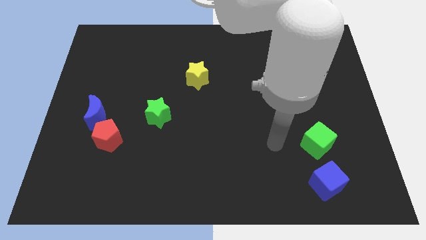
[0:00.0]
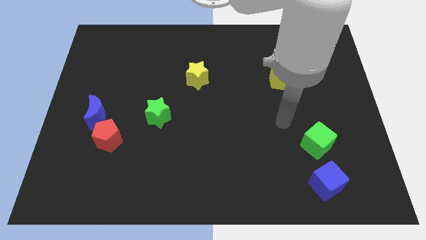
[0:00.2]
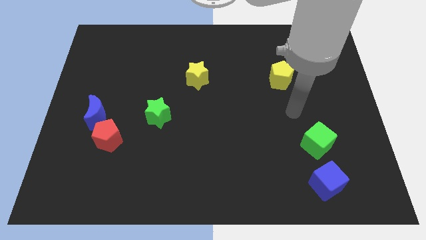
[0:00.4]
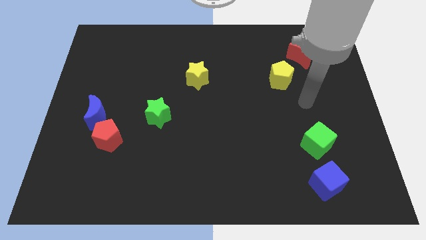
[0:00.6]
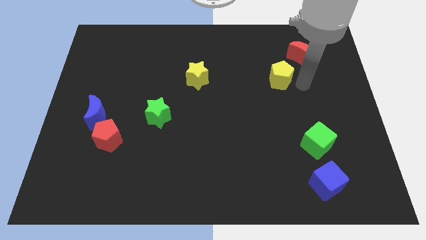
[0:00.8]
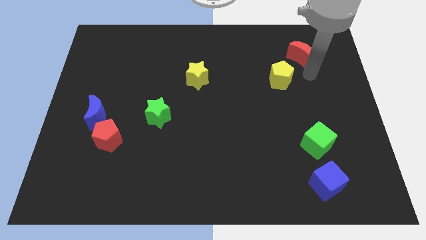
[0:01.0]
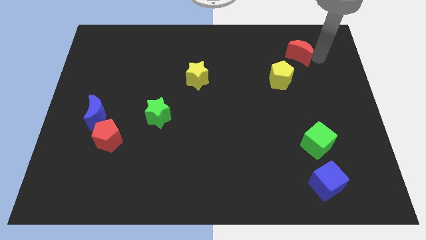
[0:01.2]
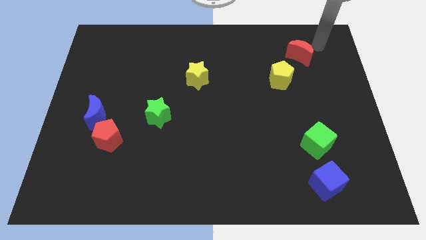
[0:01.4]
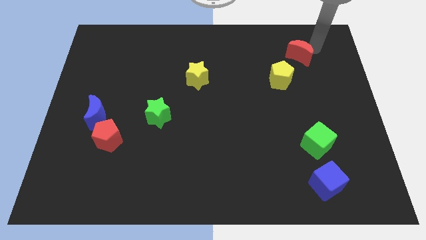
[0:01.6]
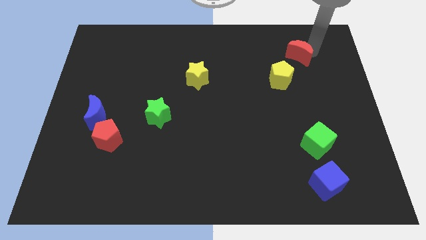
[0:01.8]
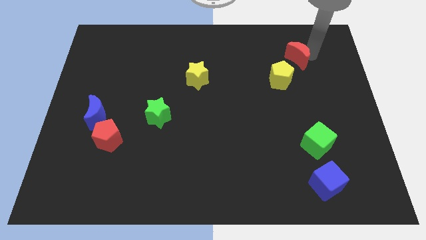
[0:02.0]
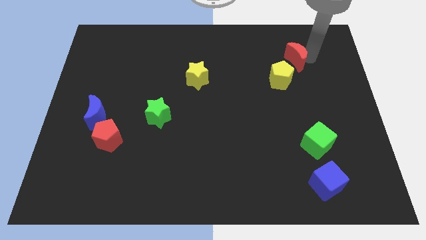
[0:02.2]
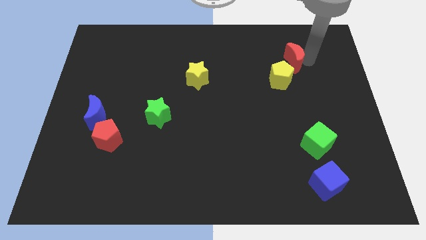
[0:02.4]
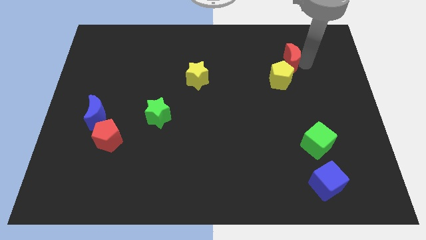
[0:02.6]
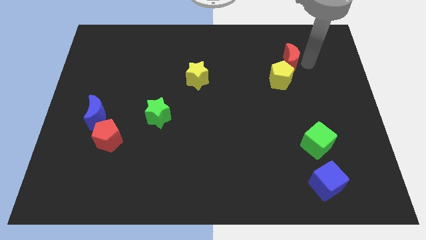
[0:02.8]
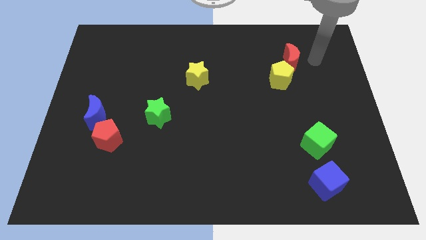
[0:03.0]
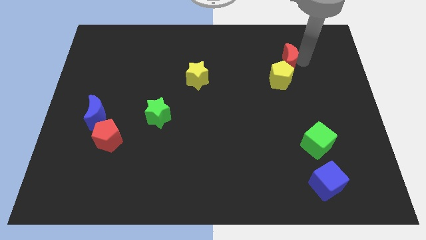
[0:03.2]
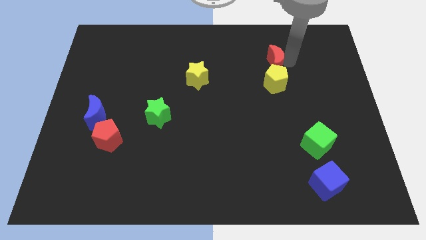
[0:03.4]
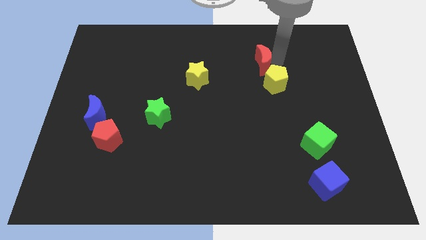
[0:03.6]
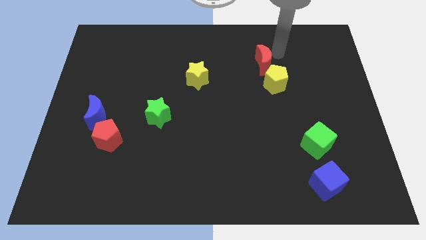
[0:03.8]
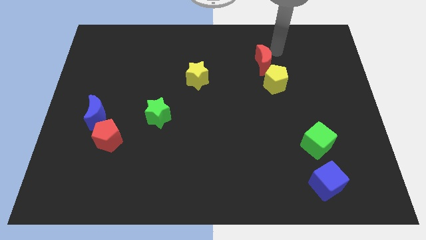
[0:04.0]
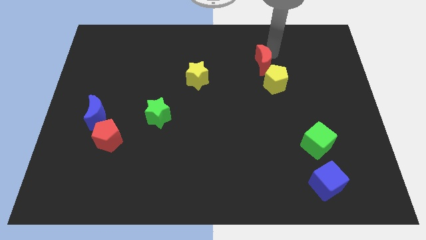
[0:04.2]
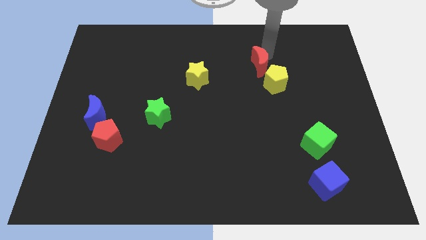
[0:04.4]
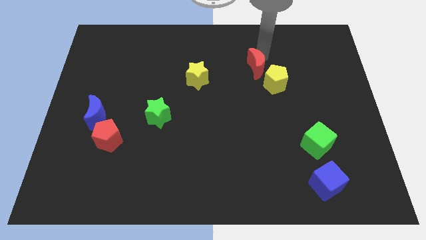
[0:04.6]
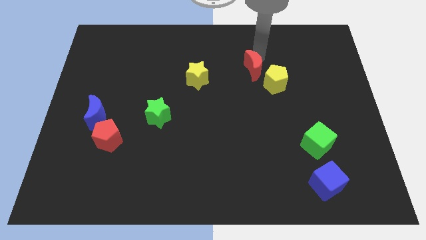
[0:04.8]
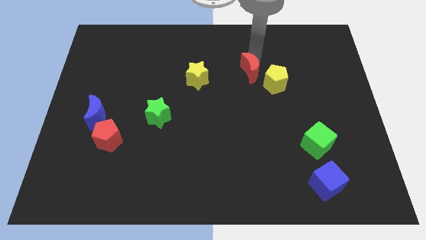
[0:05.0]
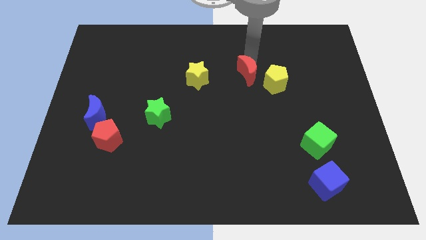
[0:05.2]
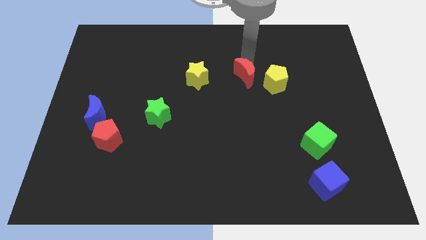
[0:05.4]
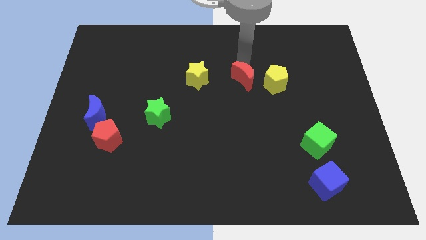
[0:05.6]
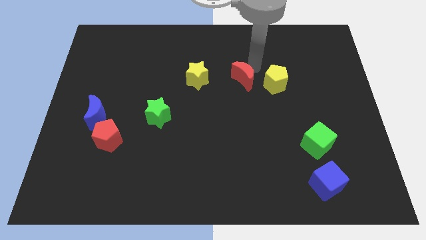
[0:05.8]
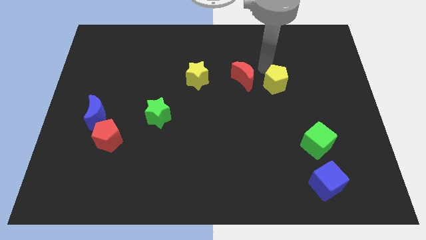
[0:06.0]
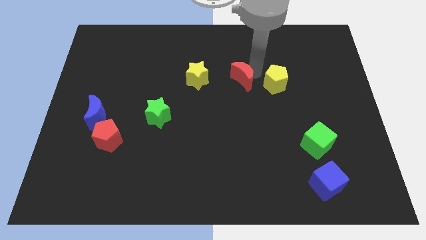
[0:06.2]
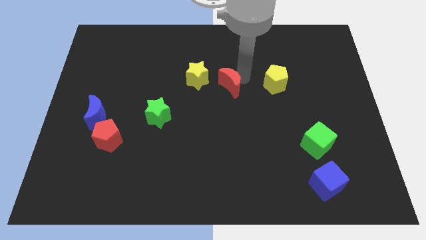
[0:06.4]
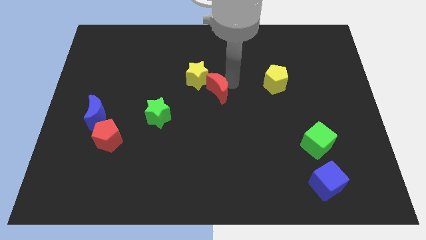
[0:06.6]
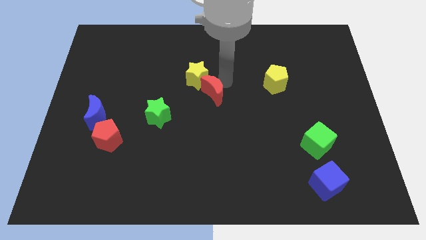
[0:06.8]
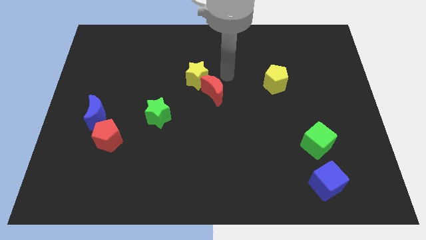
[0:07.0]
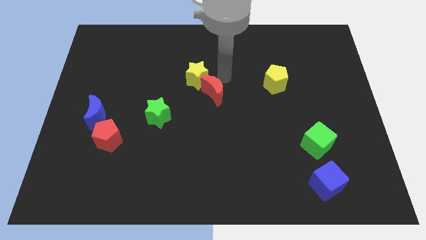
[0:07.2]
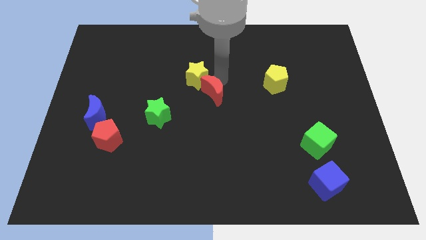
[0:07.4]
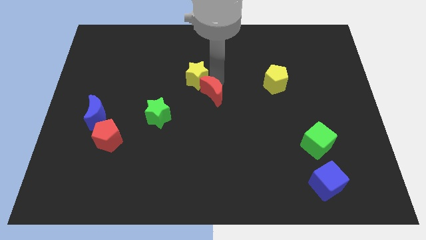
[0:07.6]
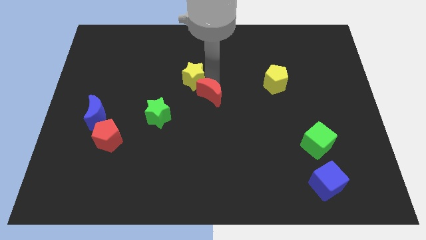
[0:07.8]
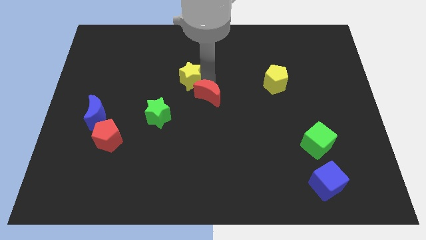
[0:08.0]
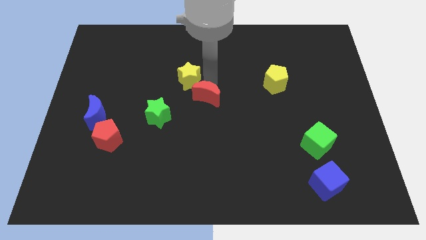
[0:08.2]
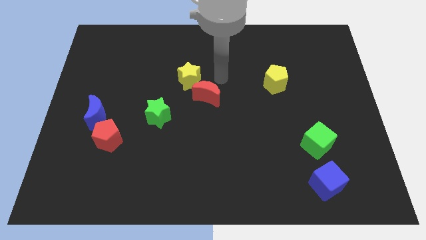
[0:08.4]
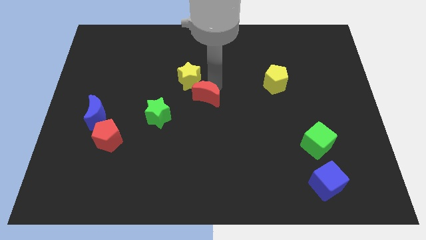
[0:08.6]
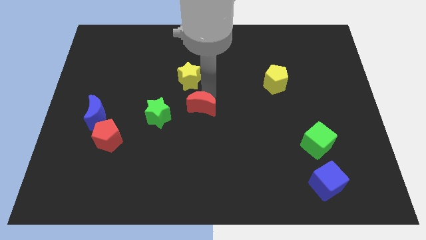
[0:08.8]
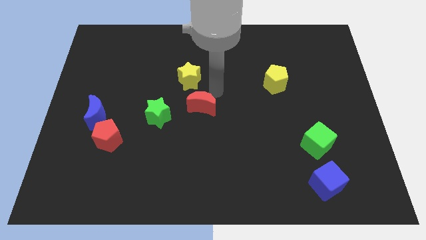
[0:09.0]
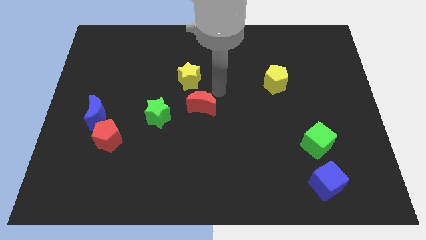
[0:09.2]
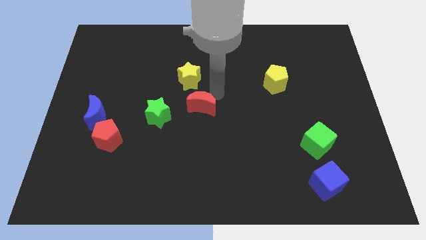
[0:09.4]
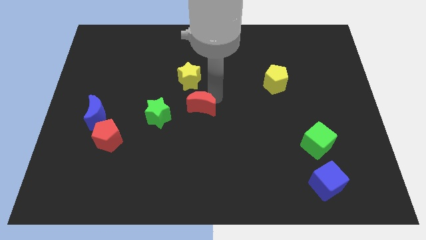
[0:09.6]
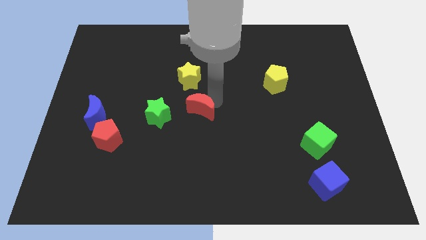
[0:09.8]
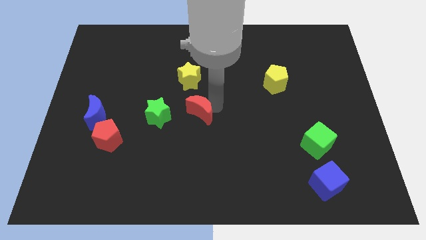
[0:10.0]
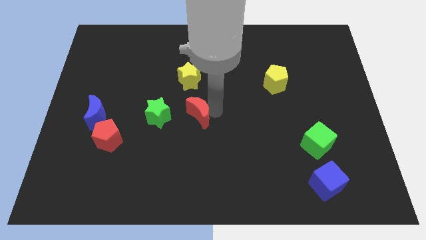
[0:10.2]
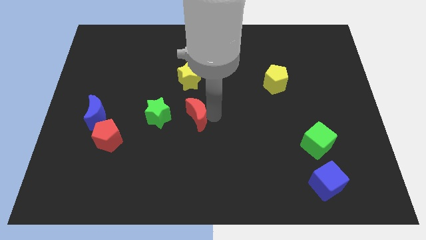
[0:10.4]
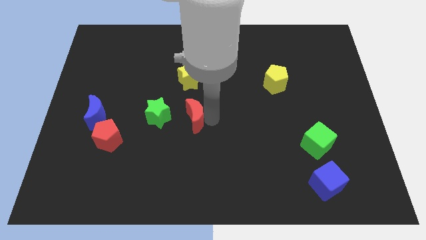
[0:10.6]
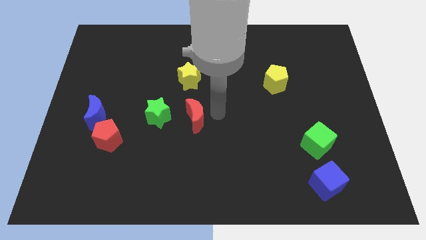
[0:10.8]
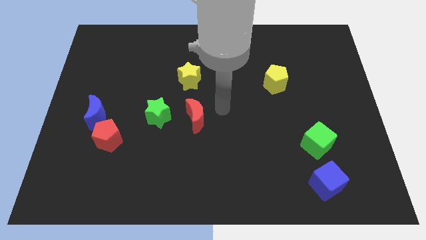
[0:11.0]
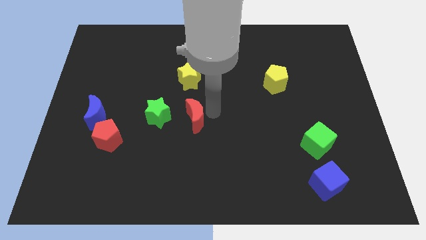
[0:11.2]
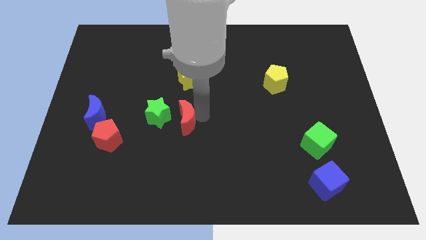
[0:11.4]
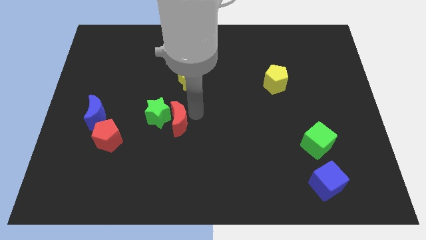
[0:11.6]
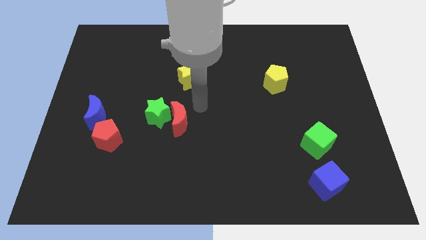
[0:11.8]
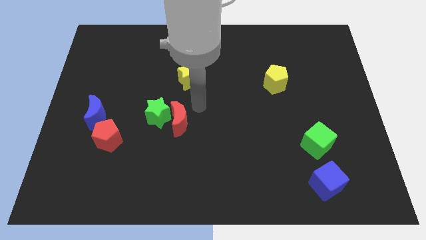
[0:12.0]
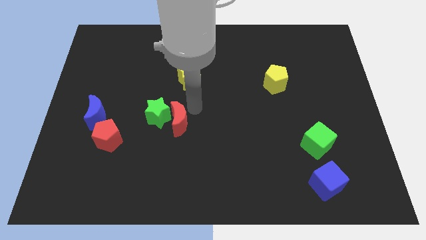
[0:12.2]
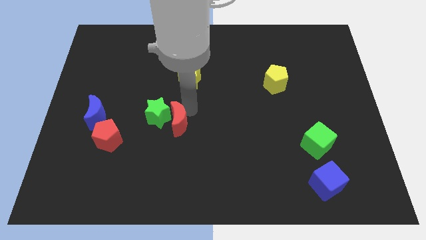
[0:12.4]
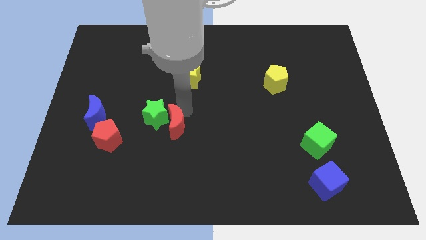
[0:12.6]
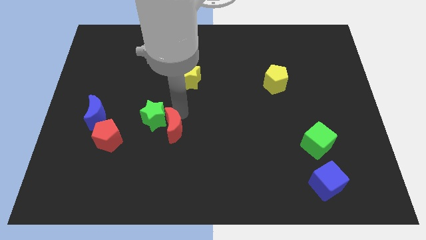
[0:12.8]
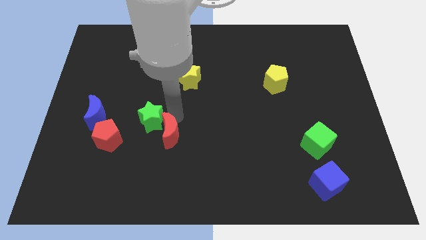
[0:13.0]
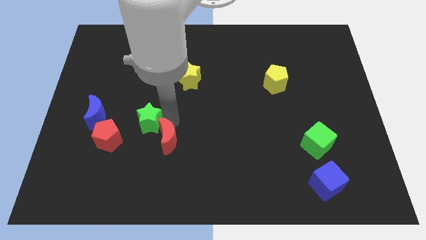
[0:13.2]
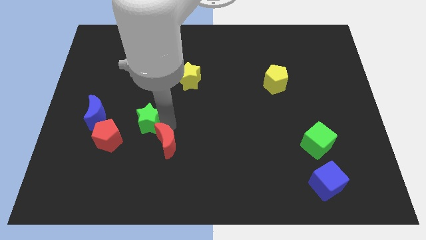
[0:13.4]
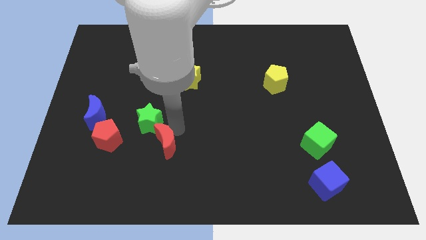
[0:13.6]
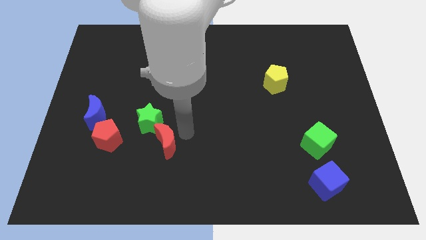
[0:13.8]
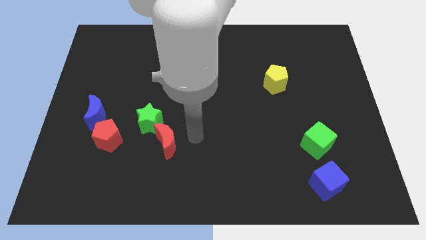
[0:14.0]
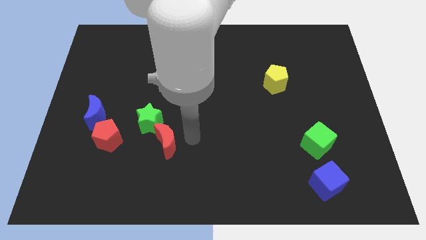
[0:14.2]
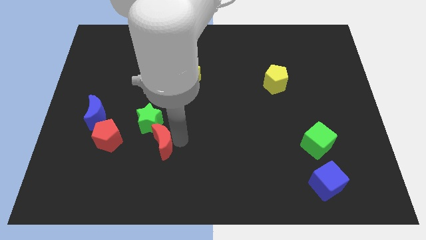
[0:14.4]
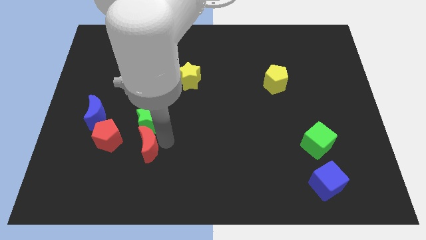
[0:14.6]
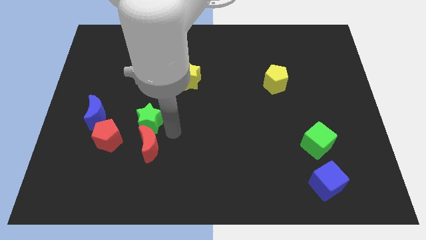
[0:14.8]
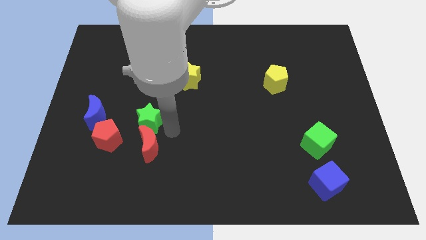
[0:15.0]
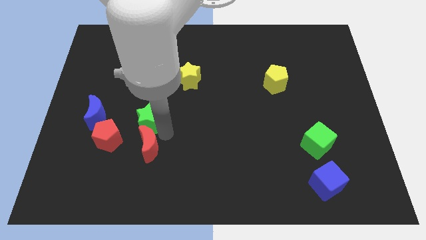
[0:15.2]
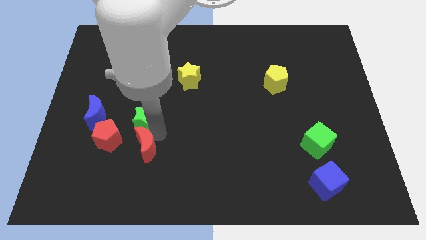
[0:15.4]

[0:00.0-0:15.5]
move the red moon to the bottom right side of the red pentagon
